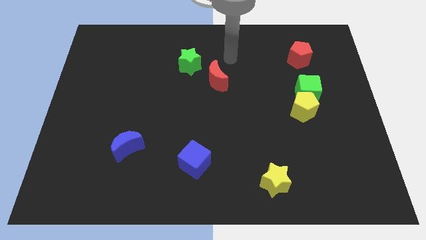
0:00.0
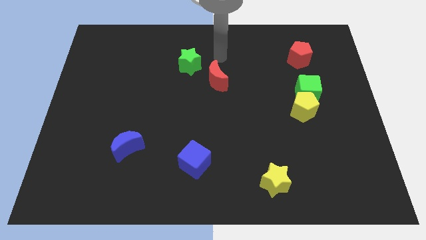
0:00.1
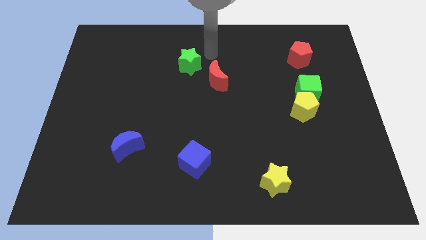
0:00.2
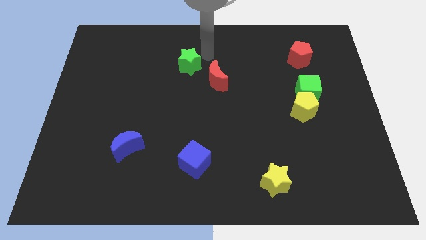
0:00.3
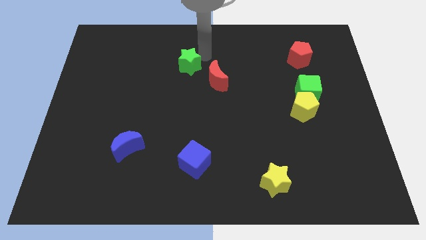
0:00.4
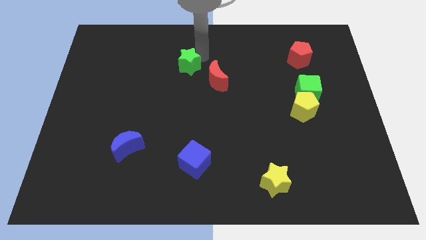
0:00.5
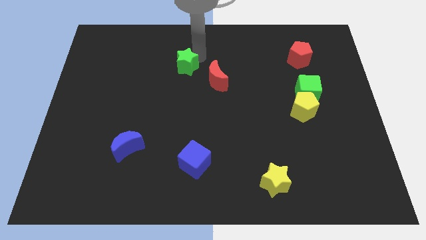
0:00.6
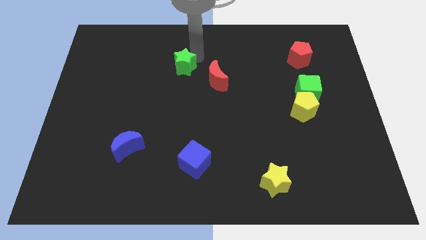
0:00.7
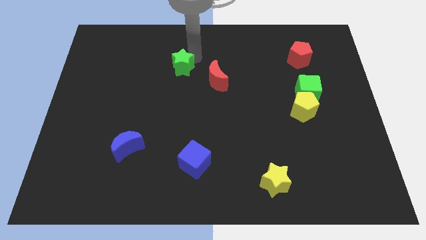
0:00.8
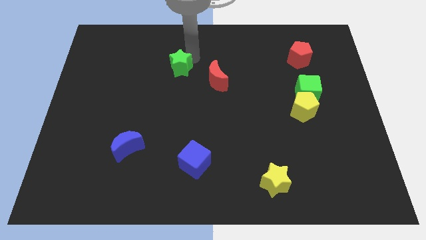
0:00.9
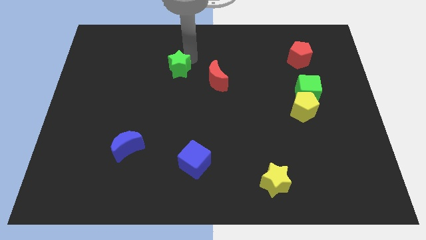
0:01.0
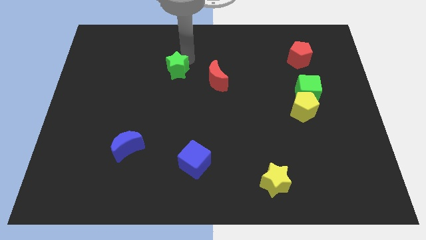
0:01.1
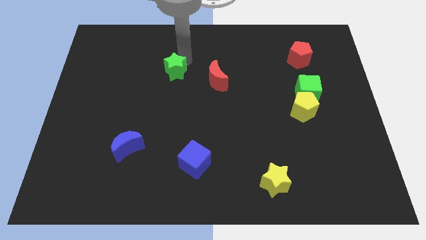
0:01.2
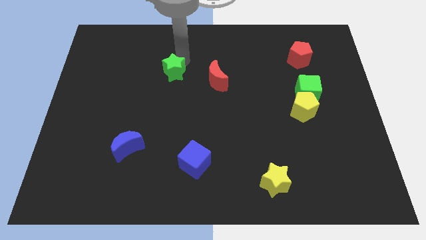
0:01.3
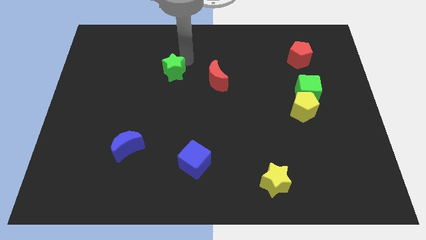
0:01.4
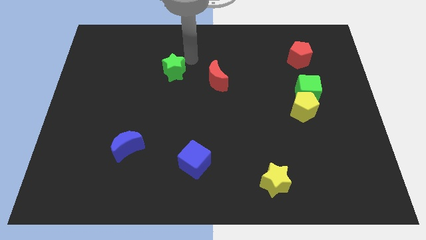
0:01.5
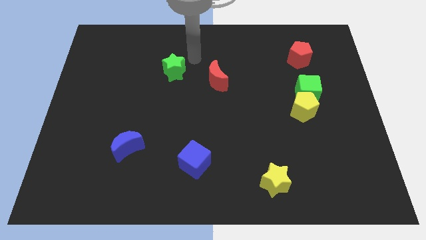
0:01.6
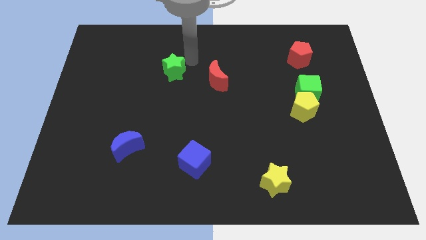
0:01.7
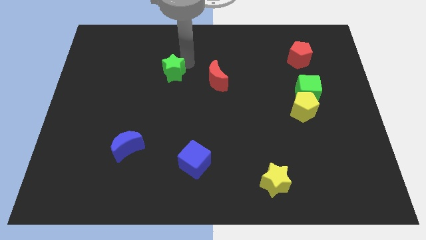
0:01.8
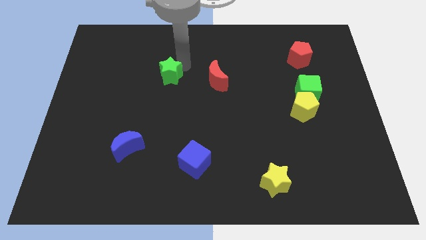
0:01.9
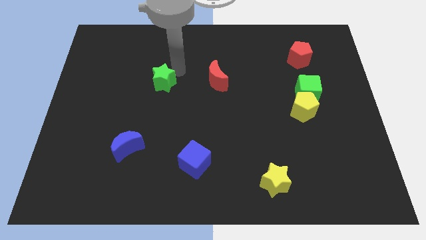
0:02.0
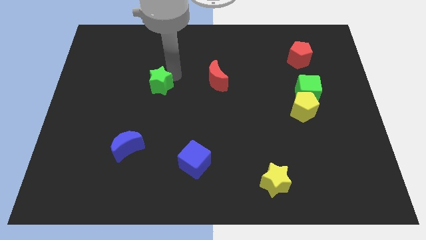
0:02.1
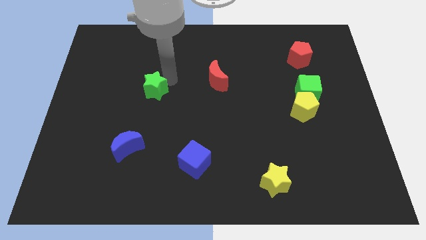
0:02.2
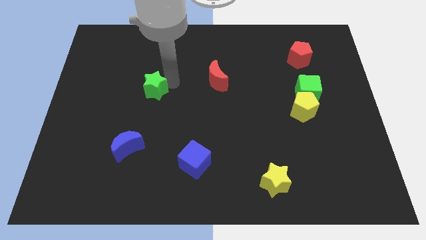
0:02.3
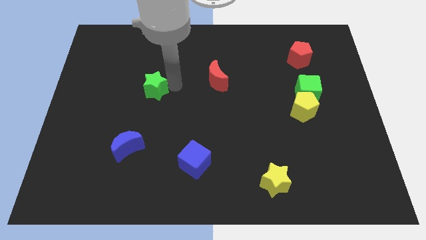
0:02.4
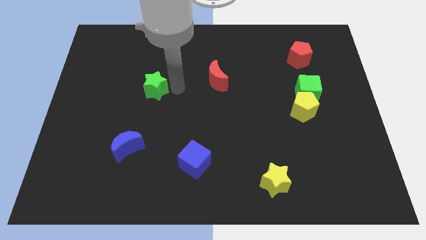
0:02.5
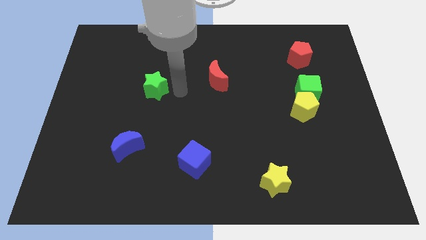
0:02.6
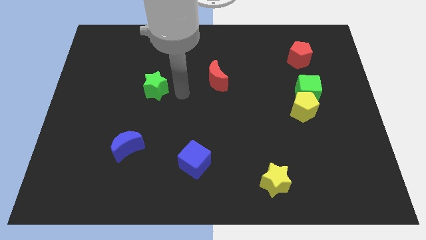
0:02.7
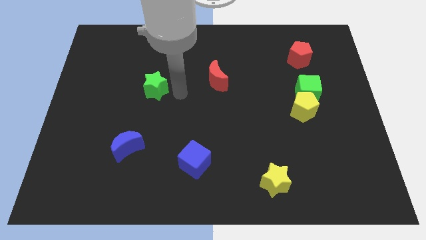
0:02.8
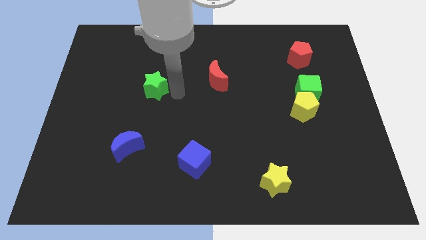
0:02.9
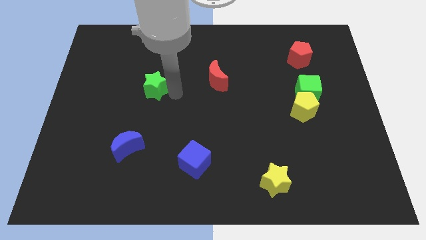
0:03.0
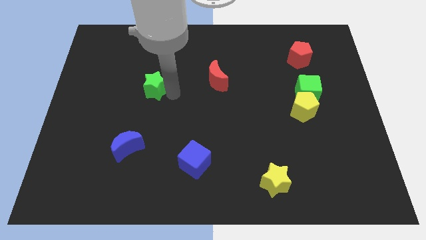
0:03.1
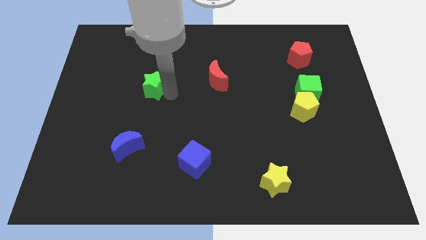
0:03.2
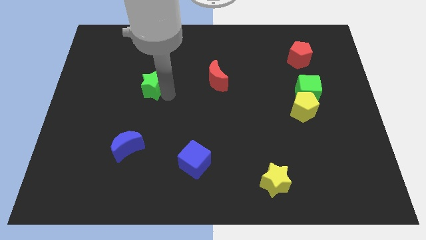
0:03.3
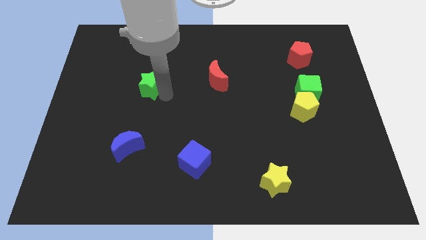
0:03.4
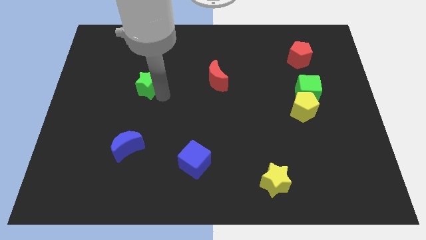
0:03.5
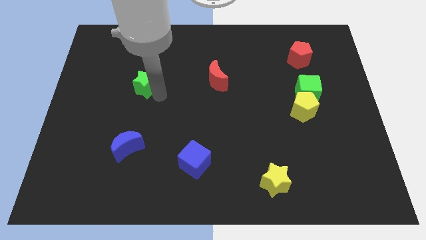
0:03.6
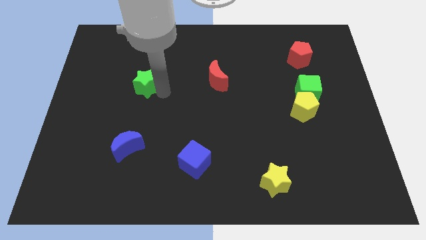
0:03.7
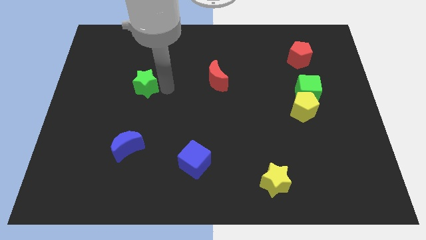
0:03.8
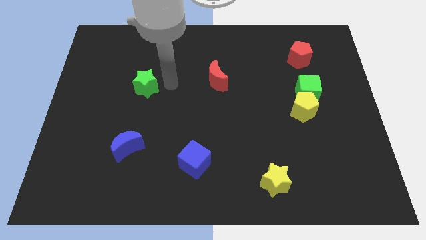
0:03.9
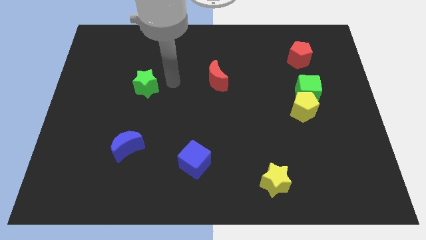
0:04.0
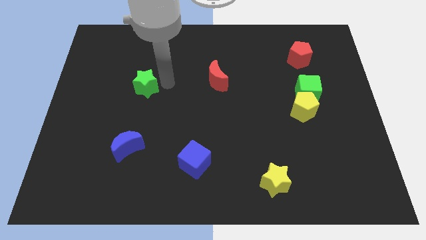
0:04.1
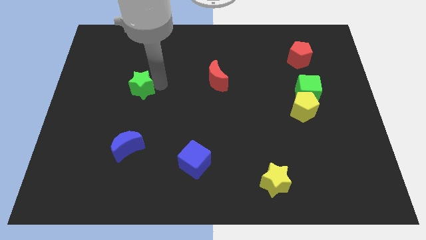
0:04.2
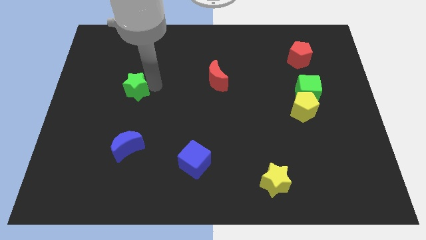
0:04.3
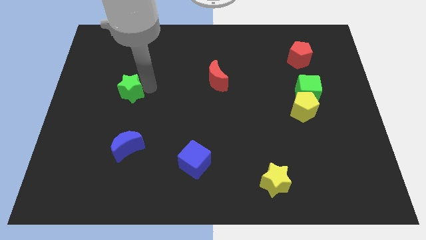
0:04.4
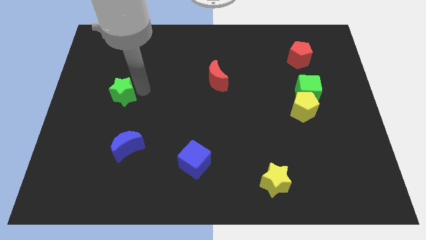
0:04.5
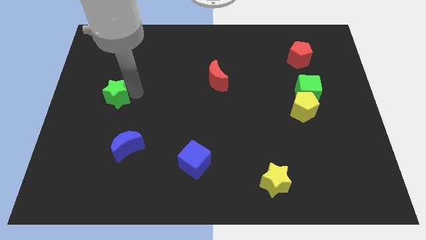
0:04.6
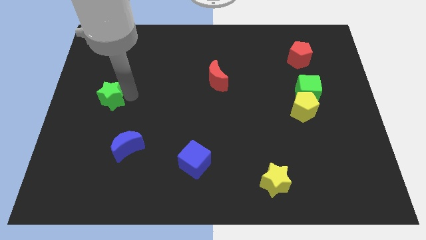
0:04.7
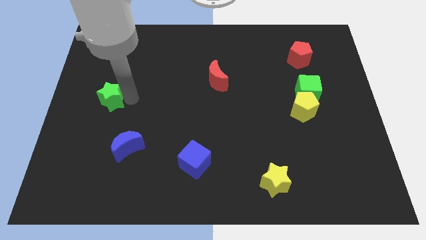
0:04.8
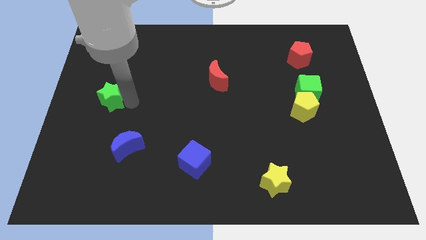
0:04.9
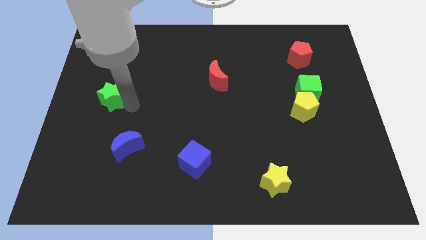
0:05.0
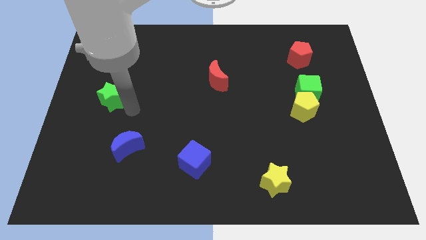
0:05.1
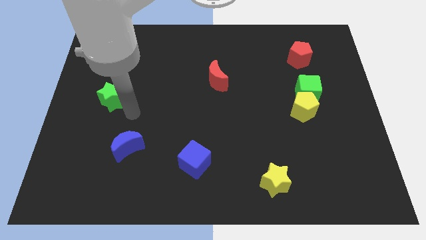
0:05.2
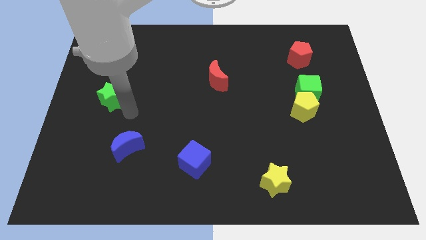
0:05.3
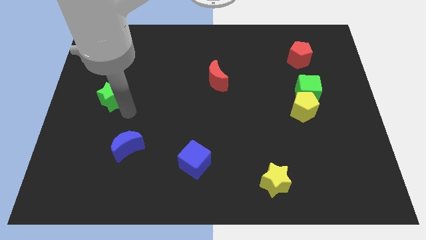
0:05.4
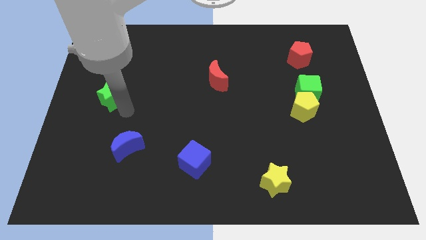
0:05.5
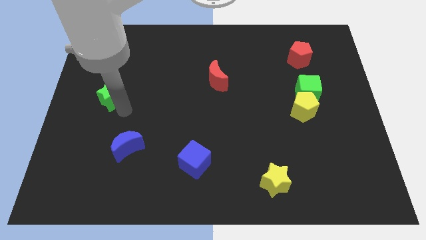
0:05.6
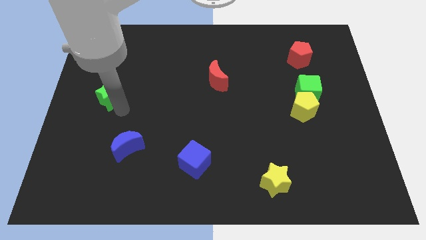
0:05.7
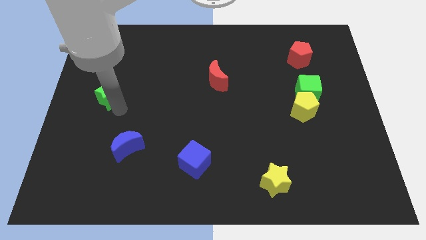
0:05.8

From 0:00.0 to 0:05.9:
push the green star to the left side of the board

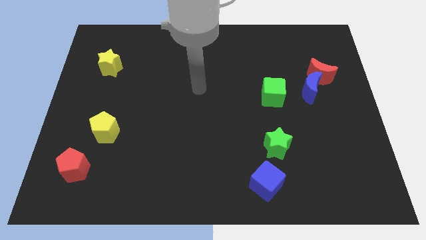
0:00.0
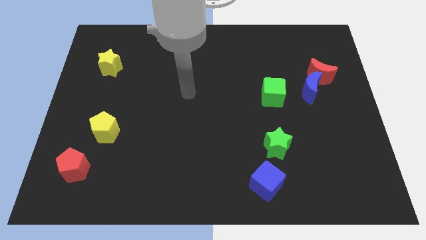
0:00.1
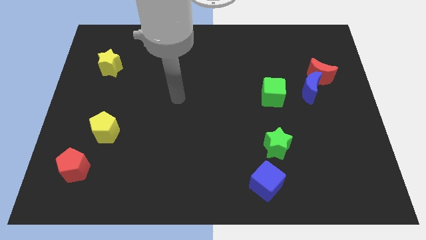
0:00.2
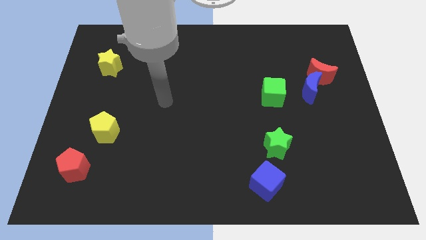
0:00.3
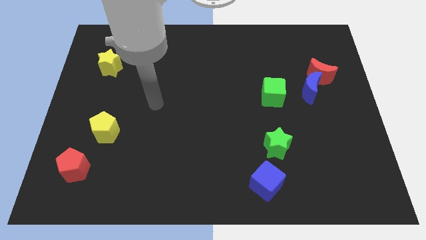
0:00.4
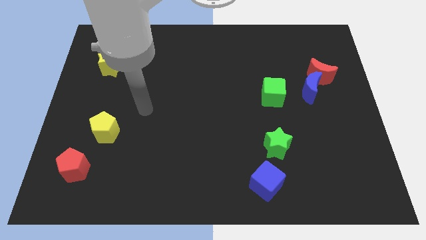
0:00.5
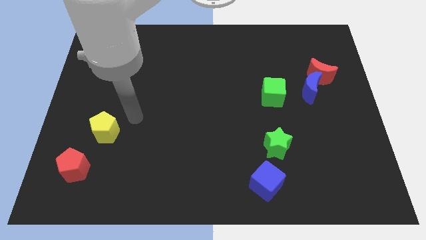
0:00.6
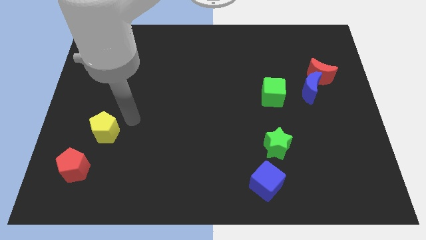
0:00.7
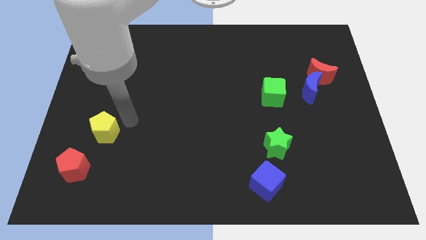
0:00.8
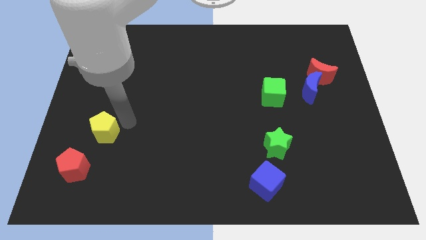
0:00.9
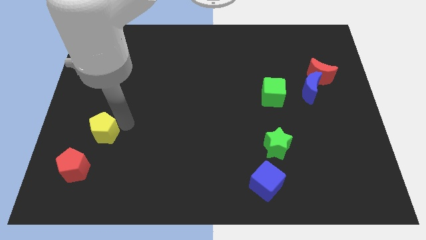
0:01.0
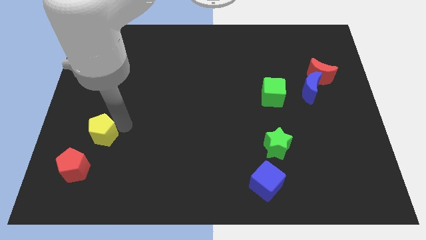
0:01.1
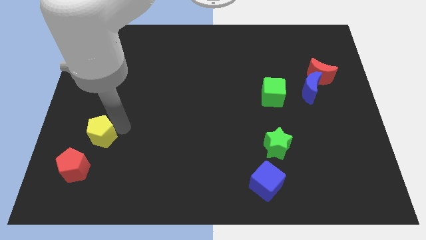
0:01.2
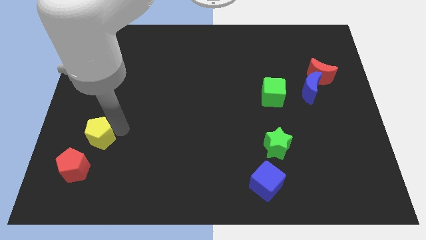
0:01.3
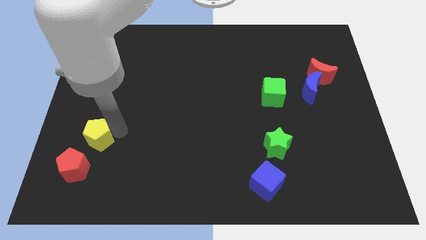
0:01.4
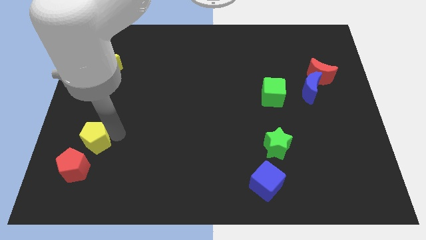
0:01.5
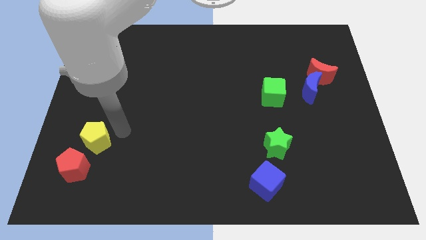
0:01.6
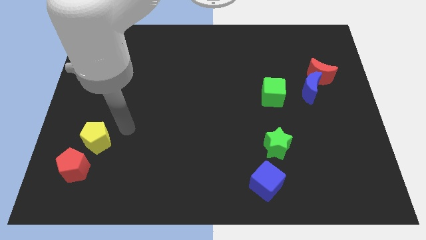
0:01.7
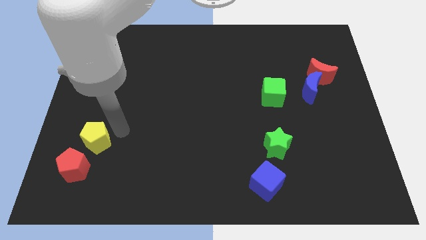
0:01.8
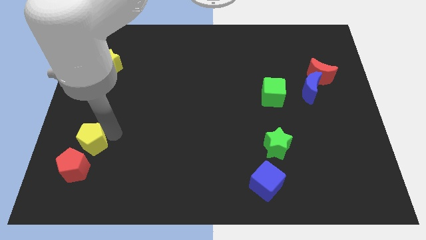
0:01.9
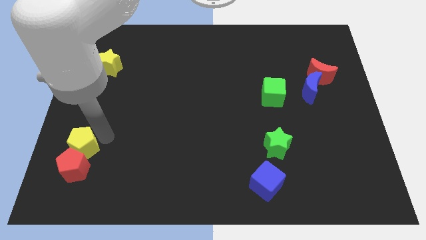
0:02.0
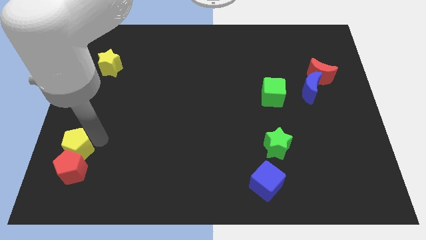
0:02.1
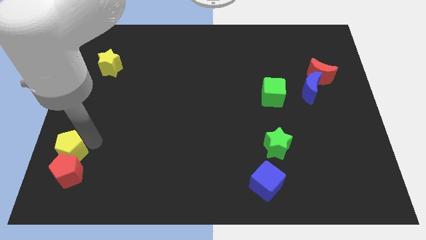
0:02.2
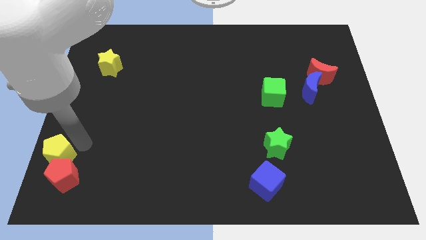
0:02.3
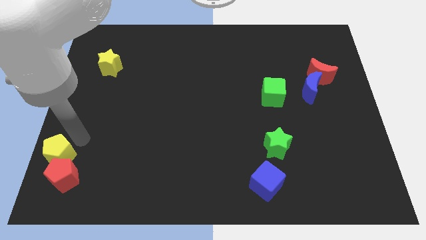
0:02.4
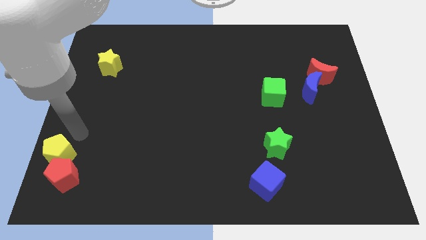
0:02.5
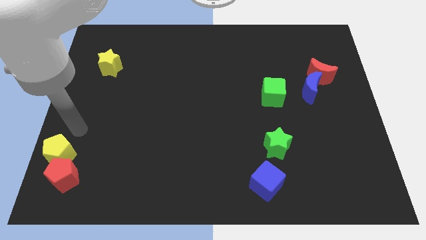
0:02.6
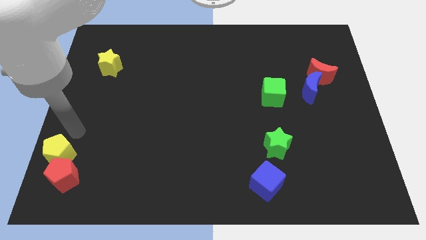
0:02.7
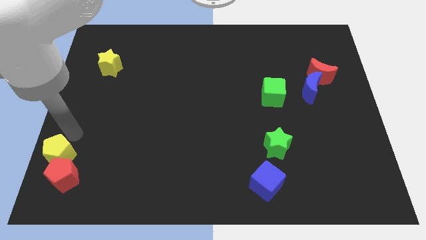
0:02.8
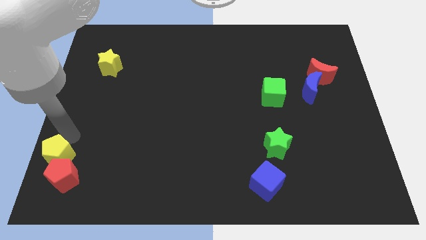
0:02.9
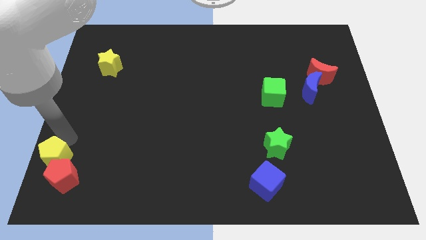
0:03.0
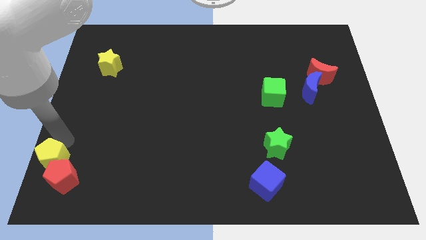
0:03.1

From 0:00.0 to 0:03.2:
move the yellow pentagon to the bottom left corner
